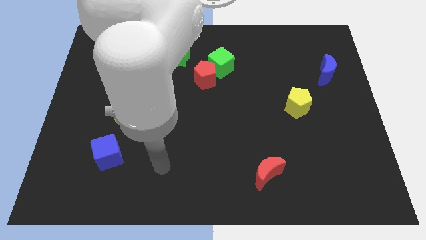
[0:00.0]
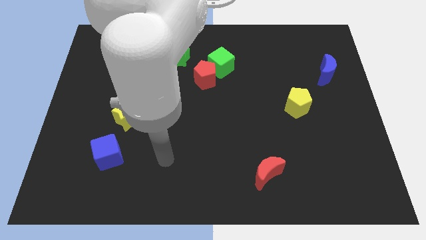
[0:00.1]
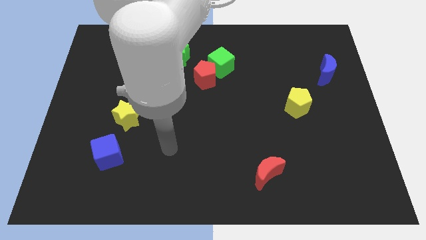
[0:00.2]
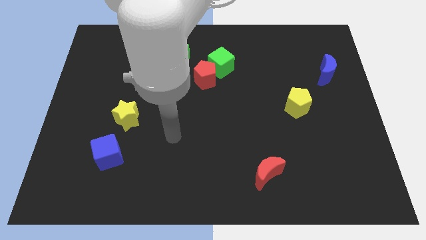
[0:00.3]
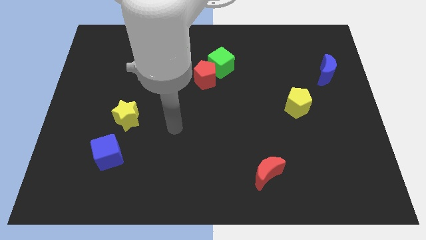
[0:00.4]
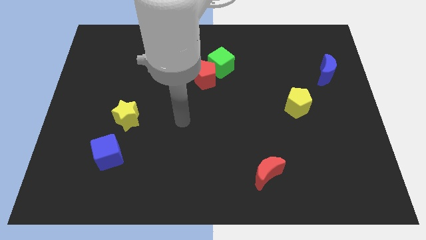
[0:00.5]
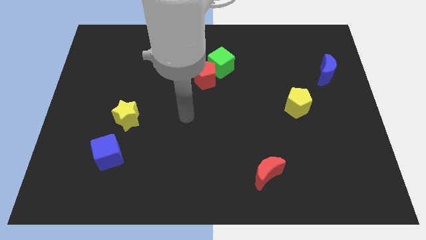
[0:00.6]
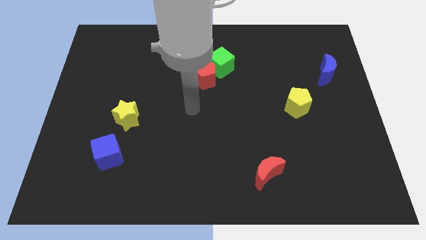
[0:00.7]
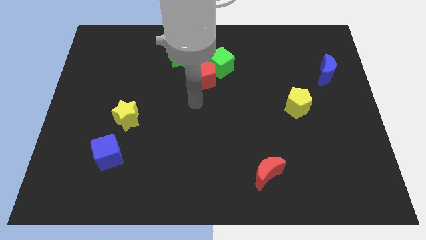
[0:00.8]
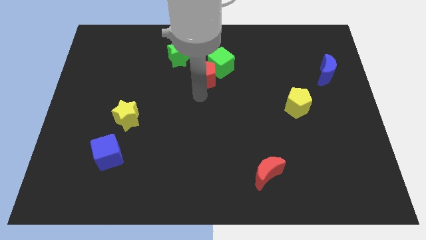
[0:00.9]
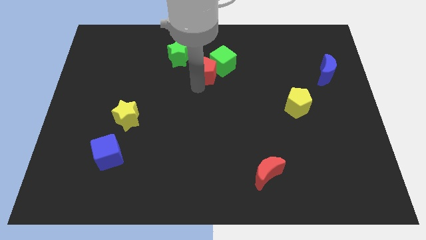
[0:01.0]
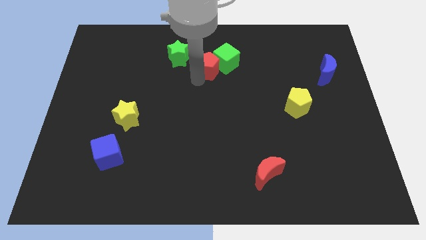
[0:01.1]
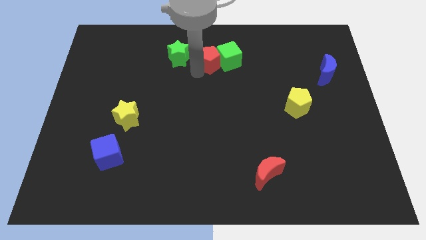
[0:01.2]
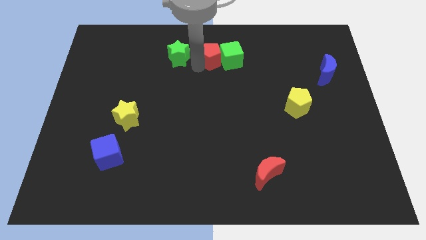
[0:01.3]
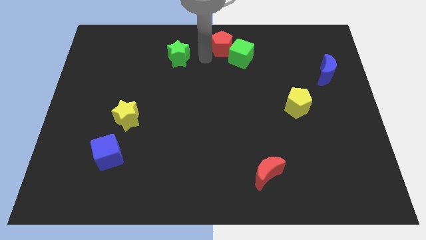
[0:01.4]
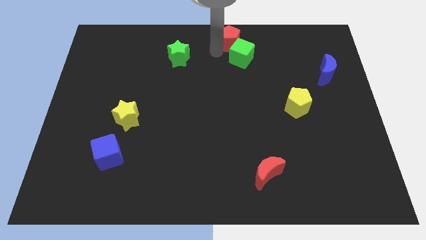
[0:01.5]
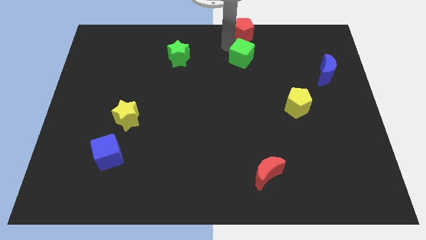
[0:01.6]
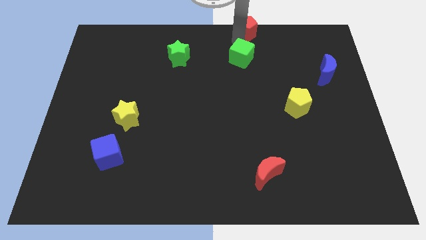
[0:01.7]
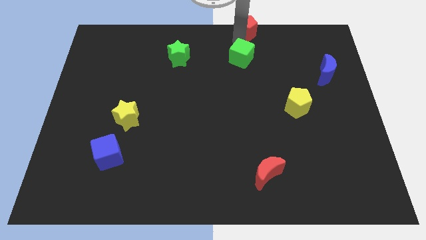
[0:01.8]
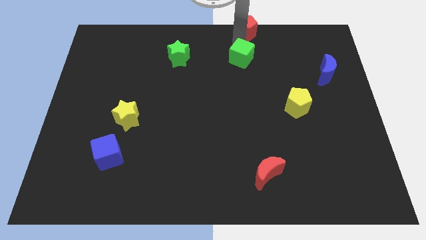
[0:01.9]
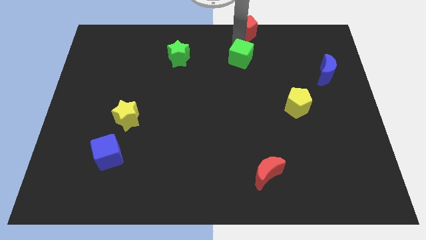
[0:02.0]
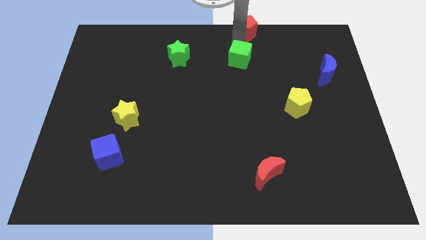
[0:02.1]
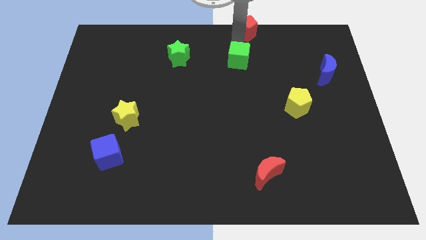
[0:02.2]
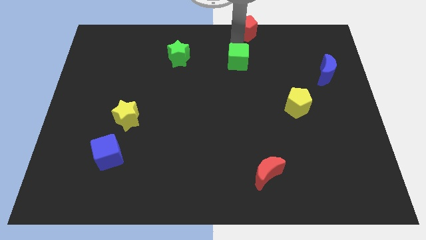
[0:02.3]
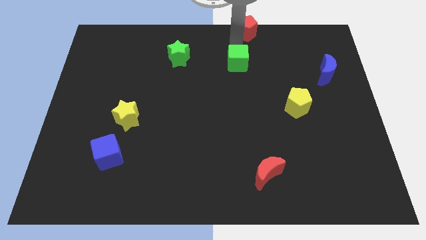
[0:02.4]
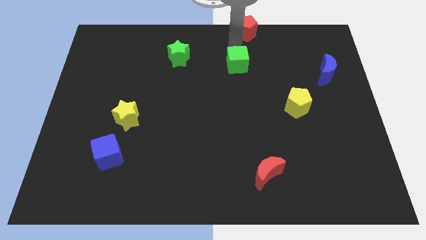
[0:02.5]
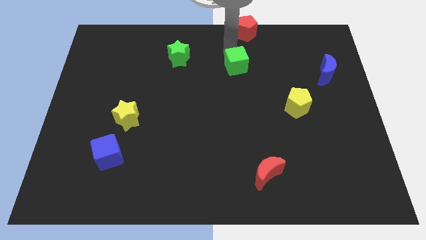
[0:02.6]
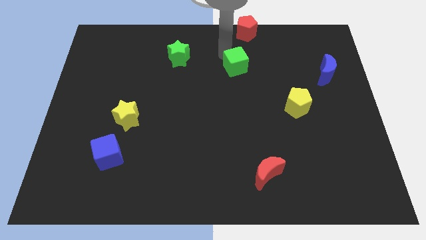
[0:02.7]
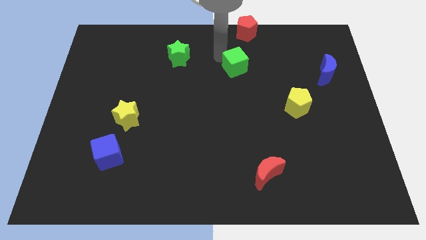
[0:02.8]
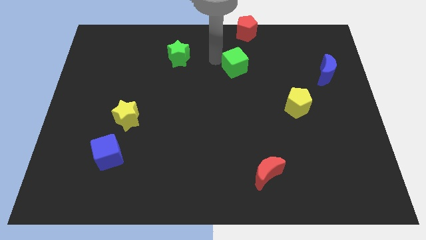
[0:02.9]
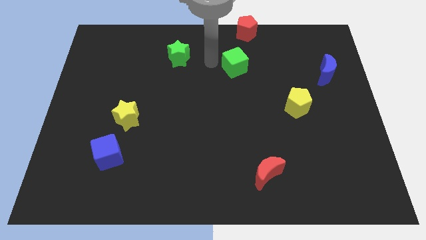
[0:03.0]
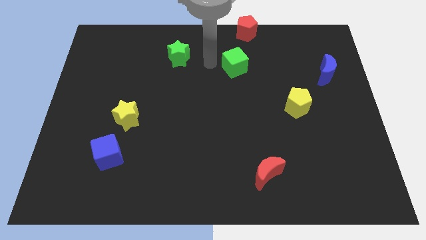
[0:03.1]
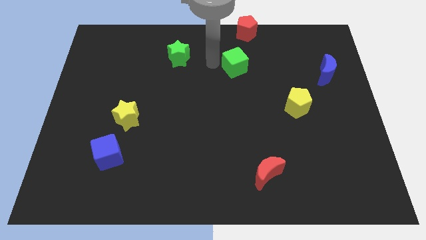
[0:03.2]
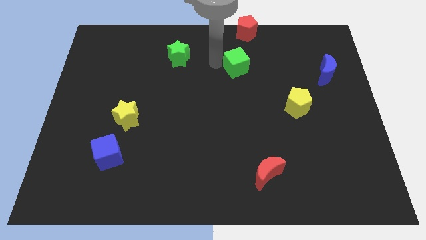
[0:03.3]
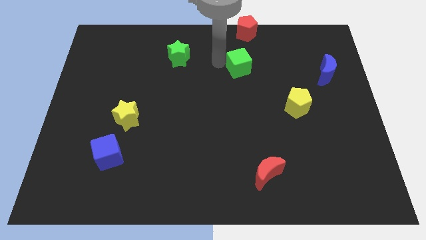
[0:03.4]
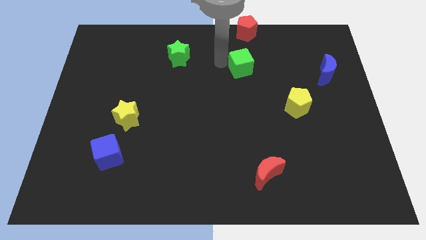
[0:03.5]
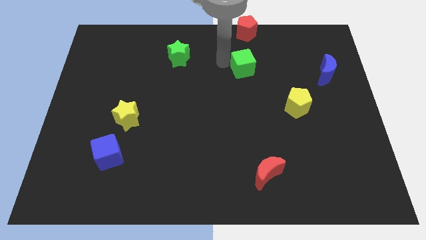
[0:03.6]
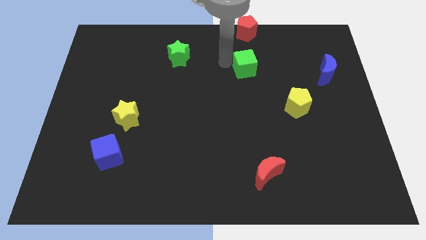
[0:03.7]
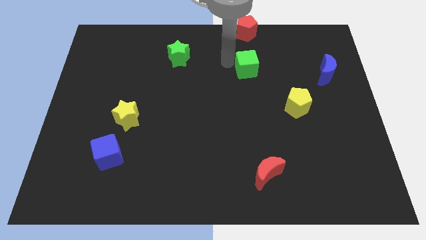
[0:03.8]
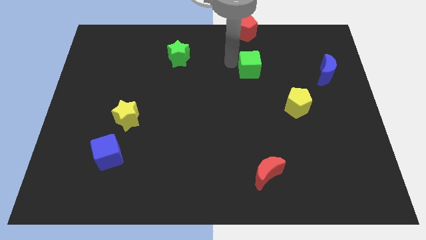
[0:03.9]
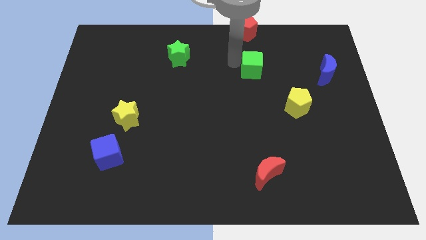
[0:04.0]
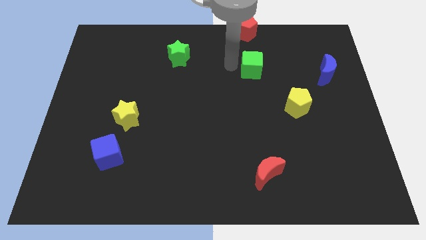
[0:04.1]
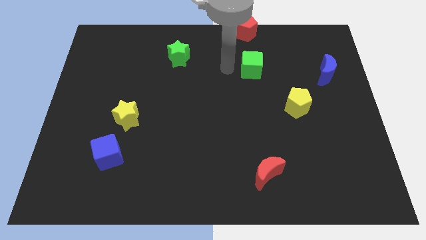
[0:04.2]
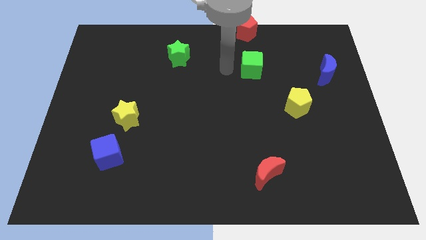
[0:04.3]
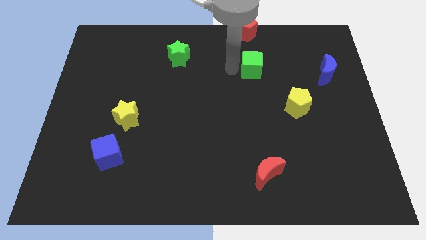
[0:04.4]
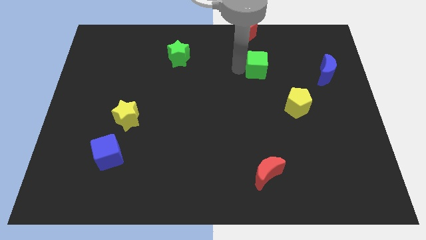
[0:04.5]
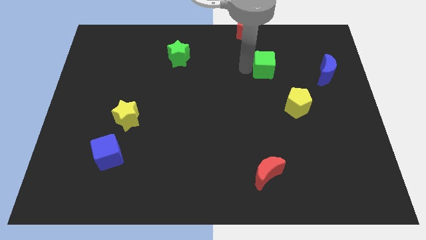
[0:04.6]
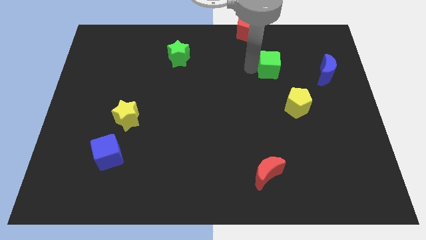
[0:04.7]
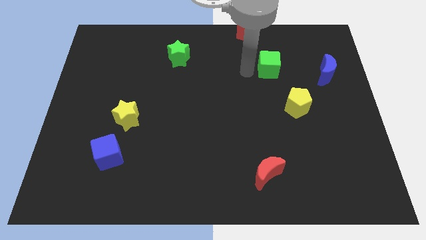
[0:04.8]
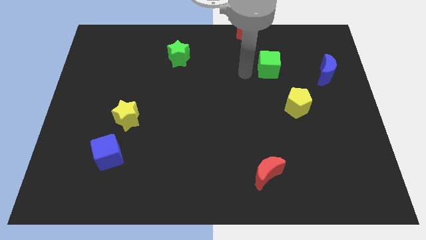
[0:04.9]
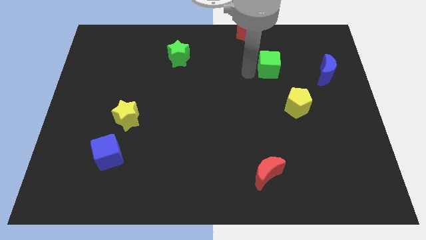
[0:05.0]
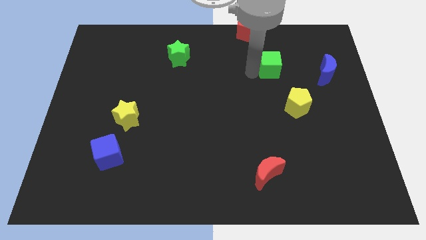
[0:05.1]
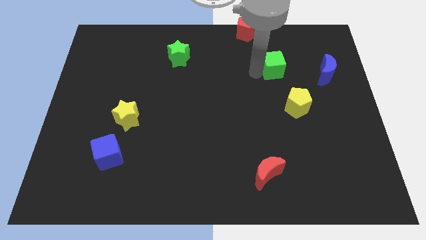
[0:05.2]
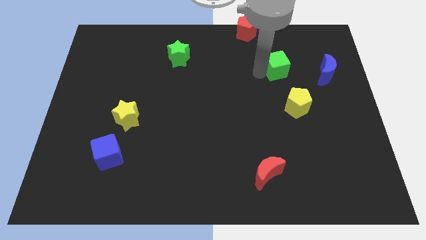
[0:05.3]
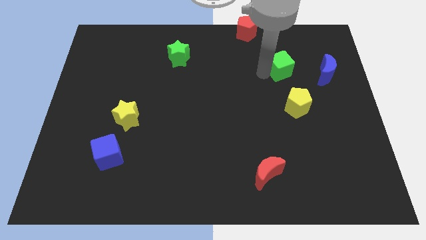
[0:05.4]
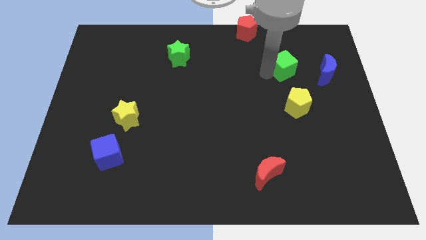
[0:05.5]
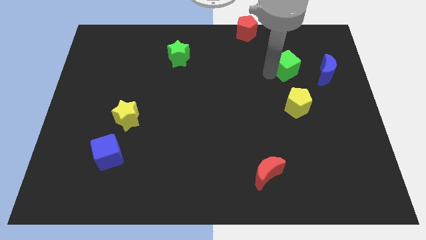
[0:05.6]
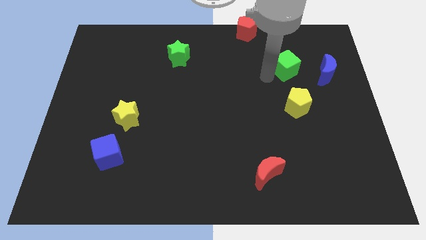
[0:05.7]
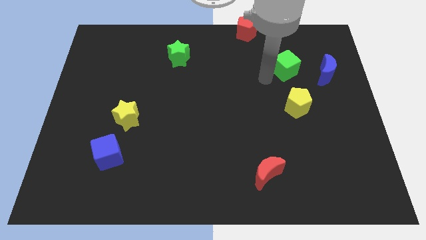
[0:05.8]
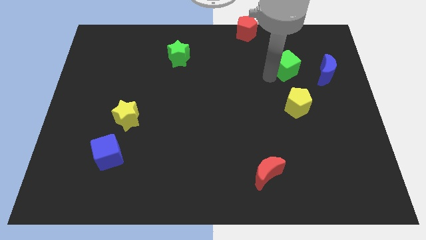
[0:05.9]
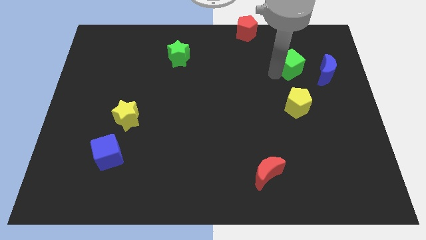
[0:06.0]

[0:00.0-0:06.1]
move the green cube to the top left of the blue moon

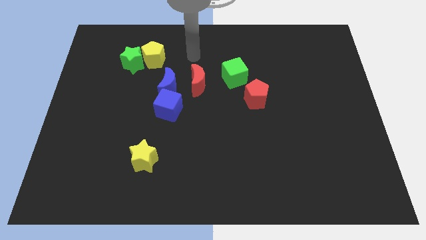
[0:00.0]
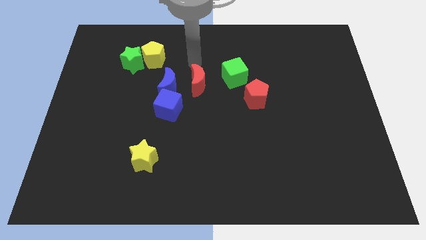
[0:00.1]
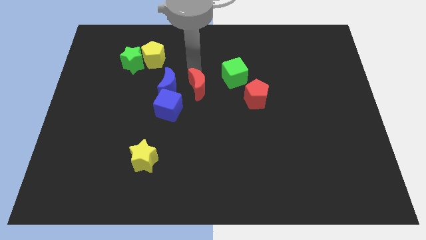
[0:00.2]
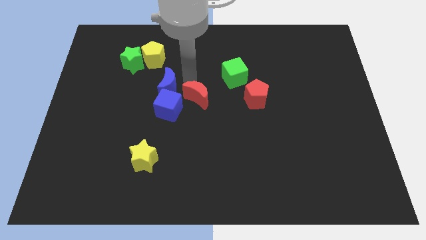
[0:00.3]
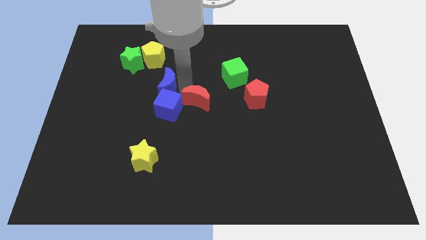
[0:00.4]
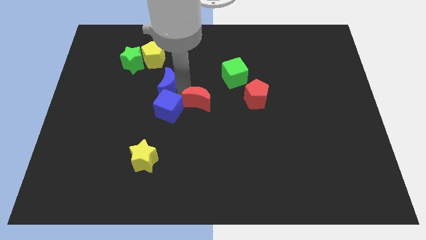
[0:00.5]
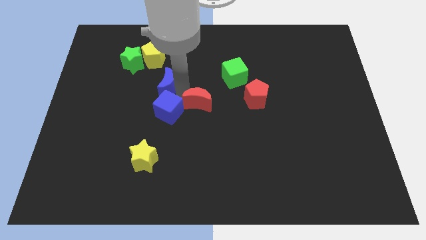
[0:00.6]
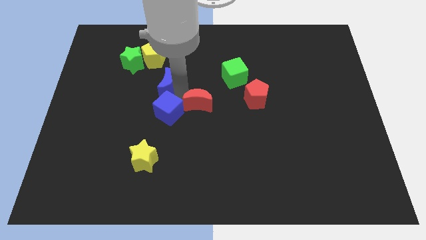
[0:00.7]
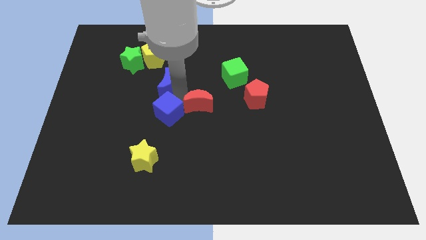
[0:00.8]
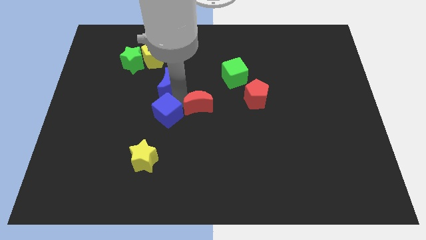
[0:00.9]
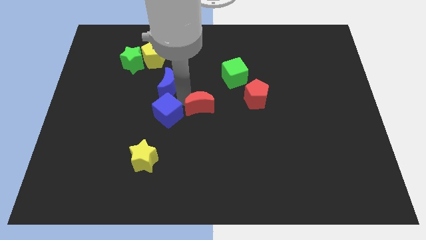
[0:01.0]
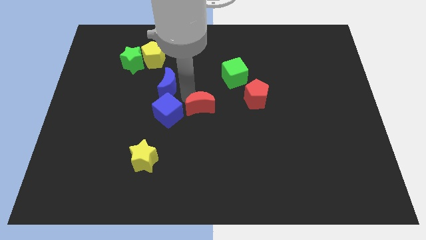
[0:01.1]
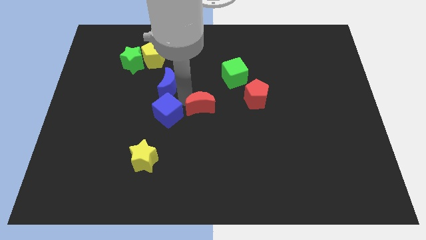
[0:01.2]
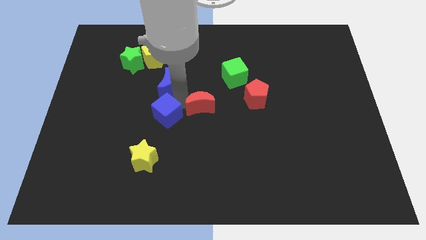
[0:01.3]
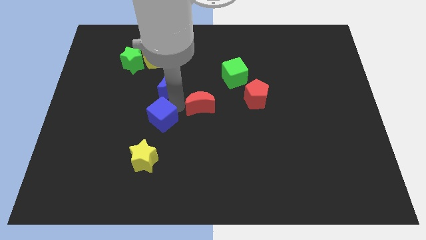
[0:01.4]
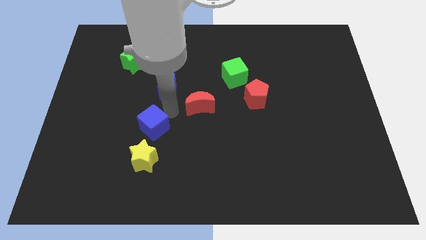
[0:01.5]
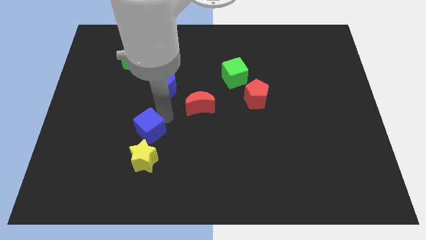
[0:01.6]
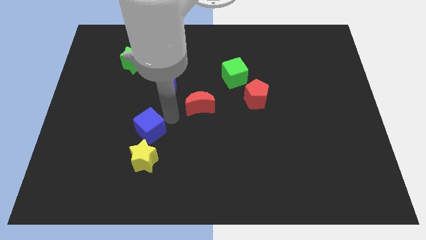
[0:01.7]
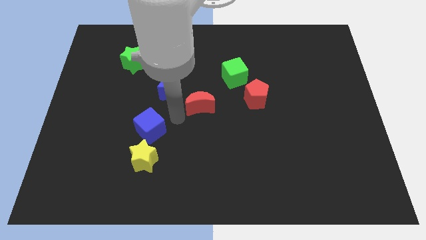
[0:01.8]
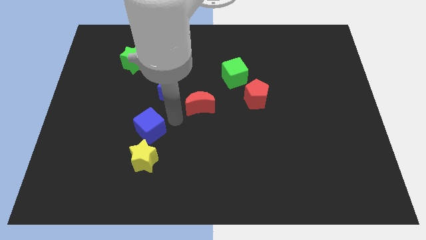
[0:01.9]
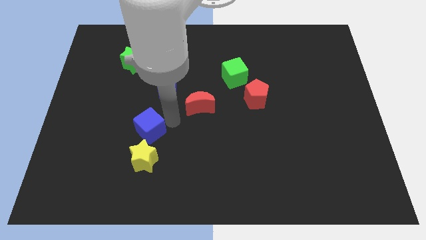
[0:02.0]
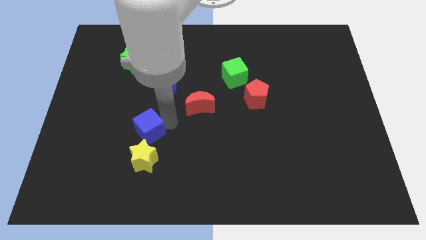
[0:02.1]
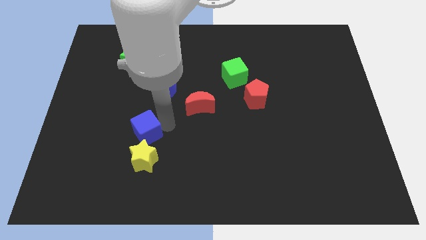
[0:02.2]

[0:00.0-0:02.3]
move the blue cube to the top left of the yellow star
